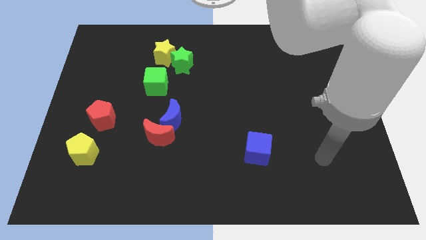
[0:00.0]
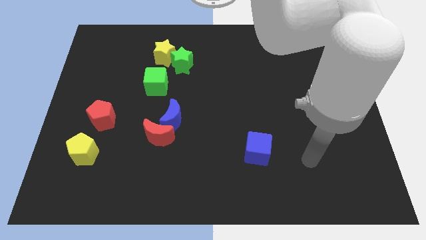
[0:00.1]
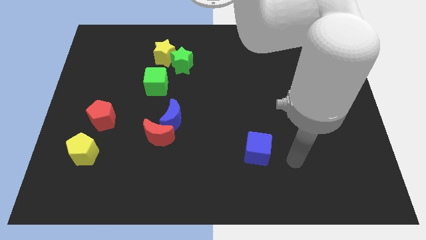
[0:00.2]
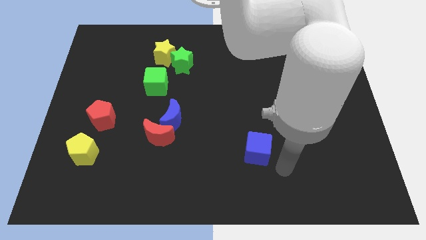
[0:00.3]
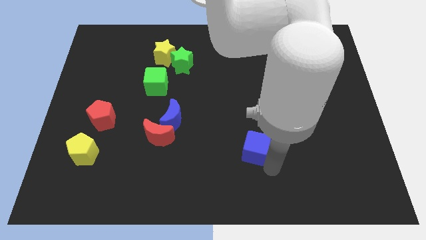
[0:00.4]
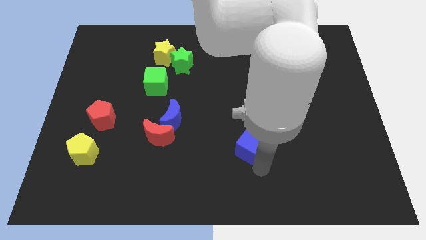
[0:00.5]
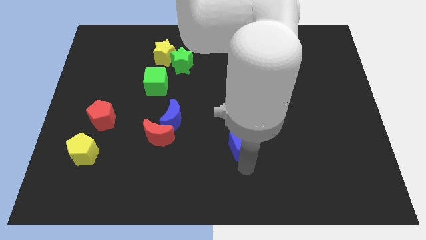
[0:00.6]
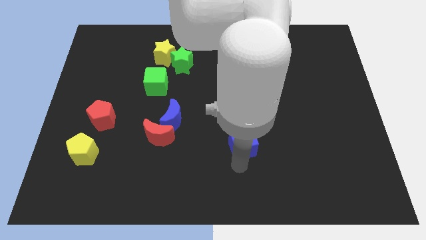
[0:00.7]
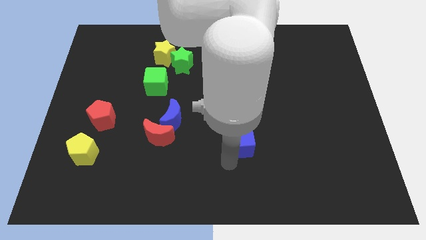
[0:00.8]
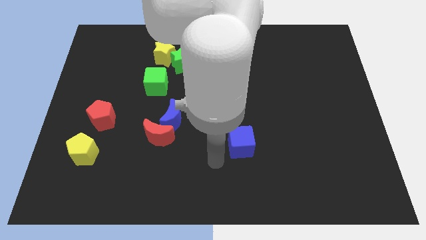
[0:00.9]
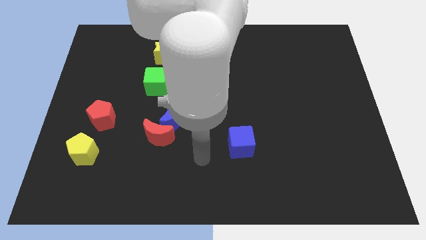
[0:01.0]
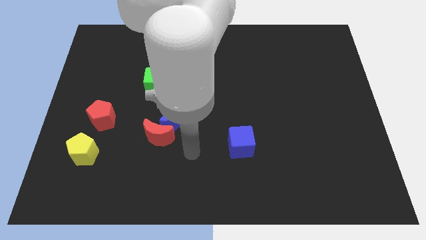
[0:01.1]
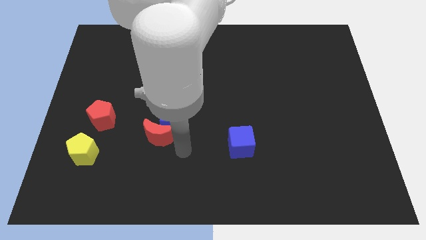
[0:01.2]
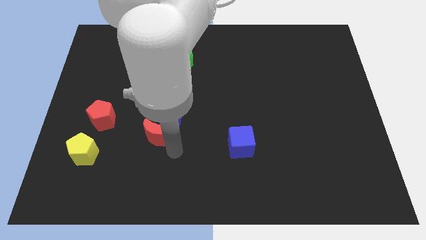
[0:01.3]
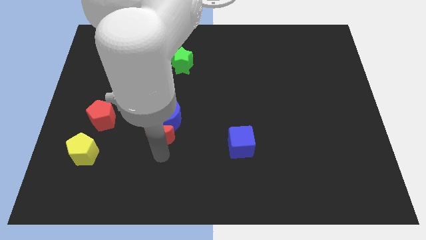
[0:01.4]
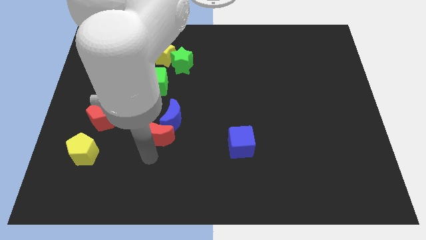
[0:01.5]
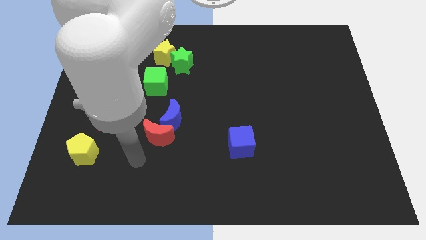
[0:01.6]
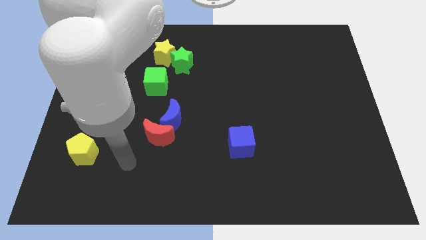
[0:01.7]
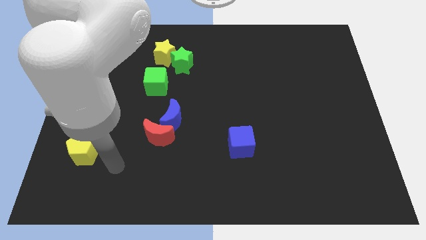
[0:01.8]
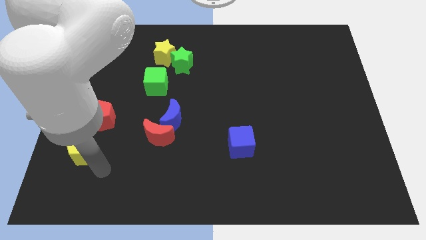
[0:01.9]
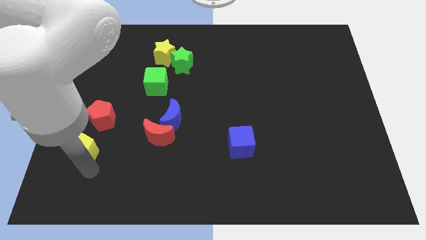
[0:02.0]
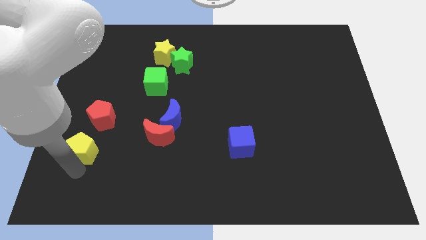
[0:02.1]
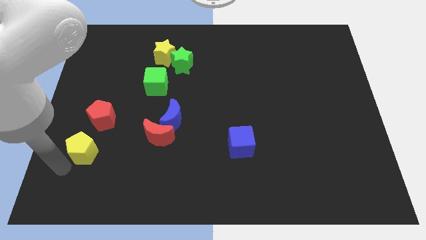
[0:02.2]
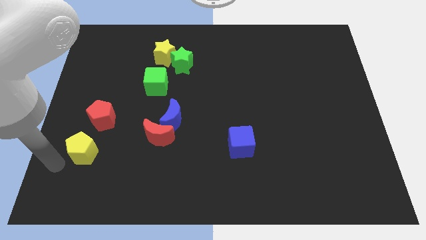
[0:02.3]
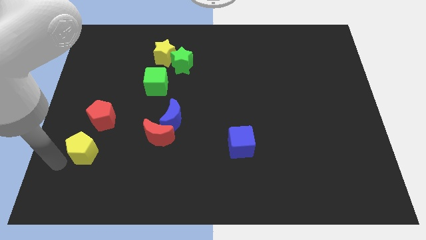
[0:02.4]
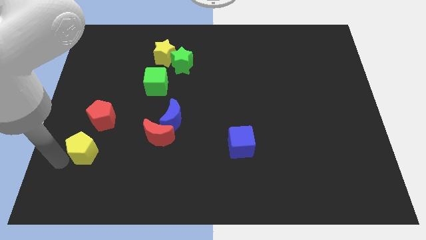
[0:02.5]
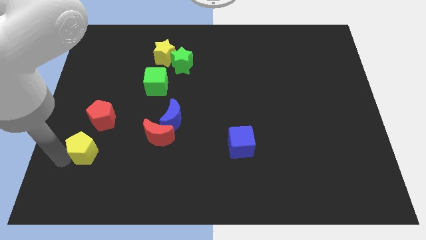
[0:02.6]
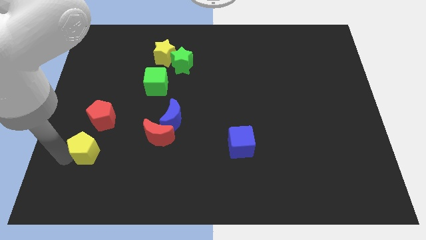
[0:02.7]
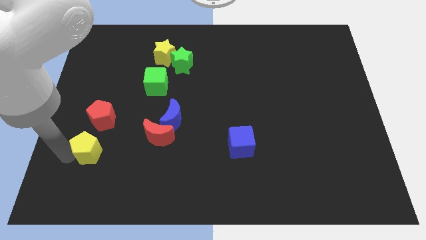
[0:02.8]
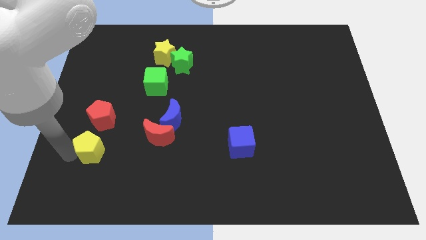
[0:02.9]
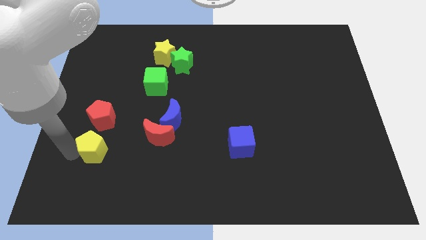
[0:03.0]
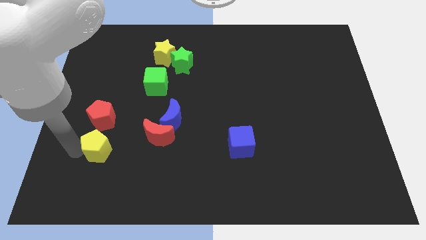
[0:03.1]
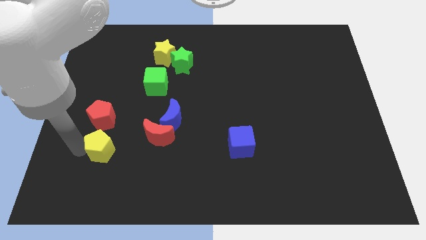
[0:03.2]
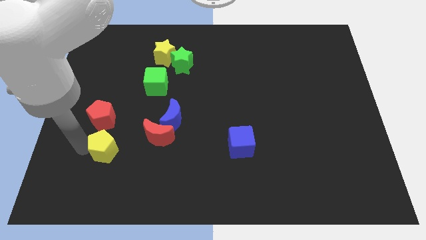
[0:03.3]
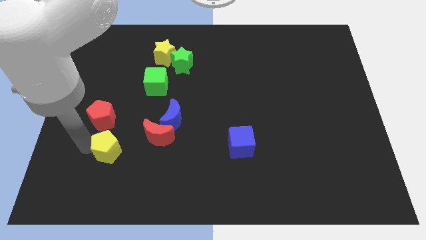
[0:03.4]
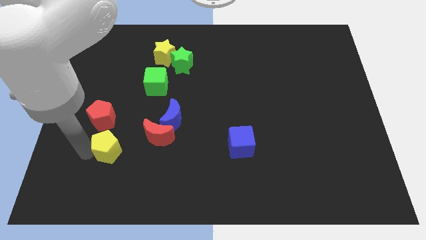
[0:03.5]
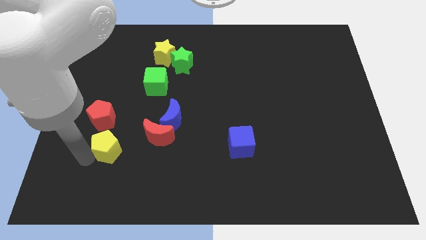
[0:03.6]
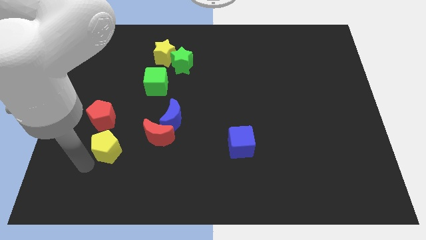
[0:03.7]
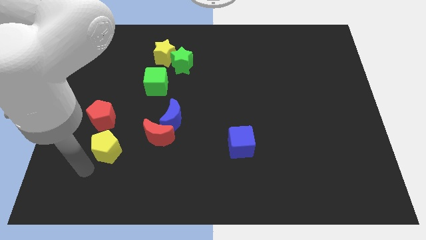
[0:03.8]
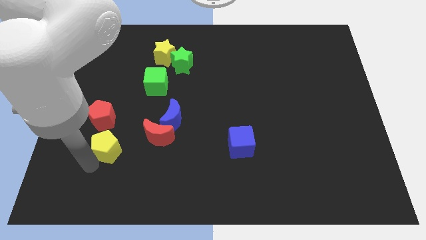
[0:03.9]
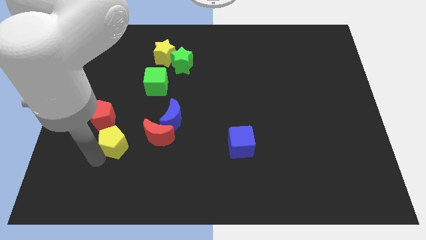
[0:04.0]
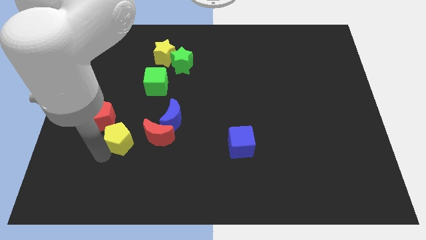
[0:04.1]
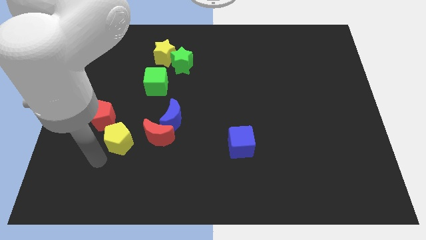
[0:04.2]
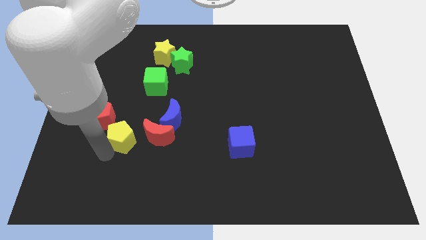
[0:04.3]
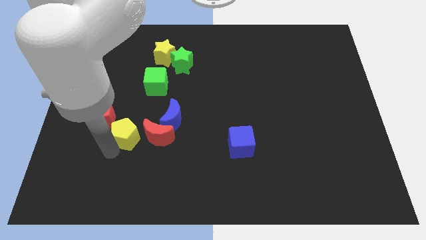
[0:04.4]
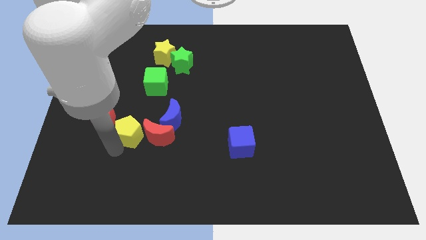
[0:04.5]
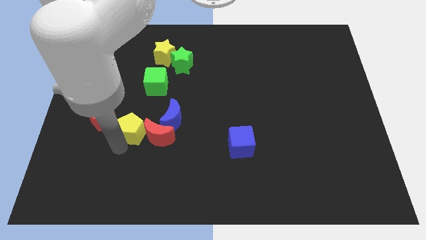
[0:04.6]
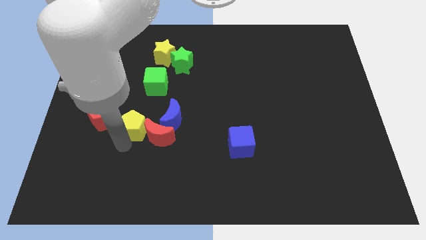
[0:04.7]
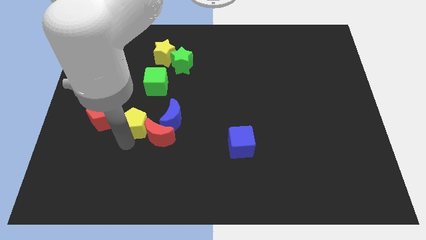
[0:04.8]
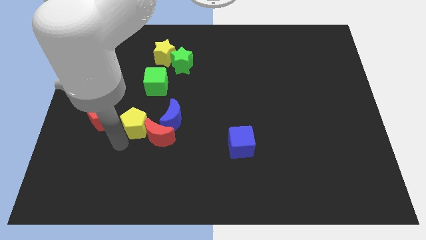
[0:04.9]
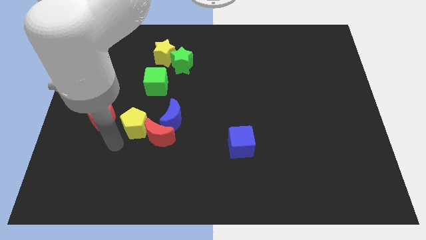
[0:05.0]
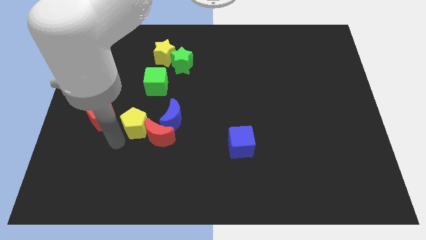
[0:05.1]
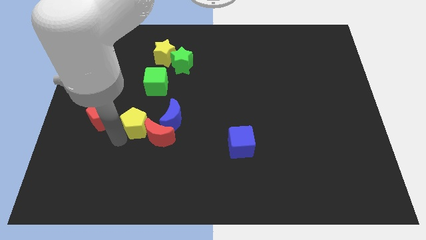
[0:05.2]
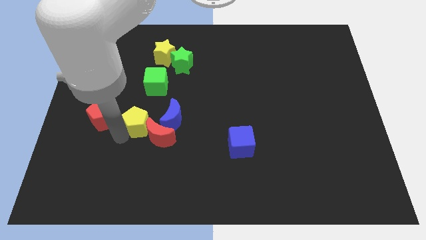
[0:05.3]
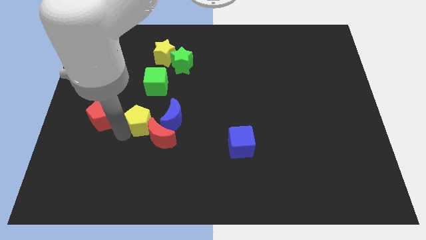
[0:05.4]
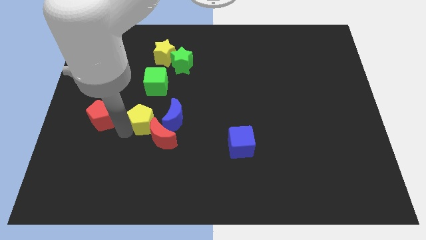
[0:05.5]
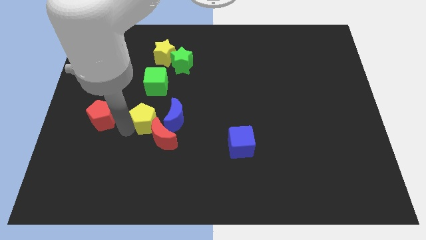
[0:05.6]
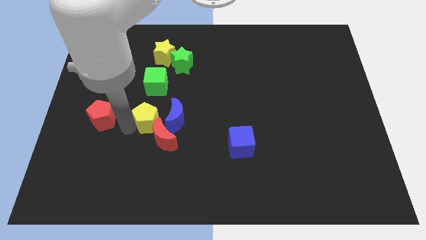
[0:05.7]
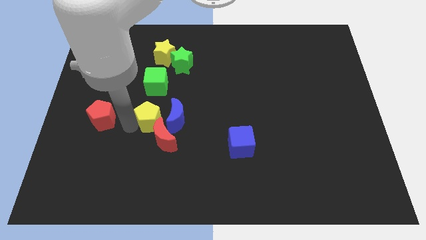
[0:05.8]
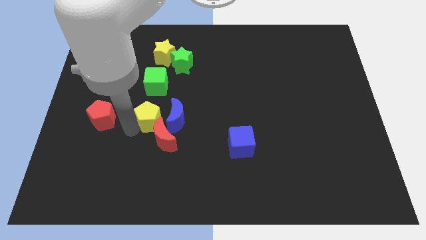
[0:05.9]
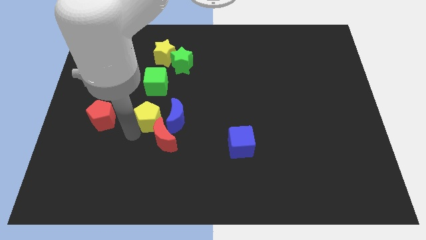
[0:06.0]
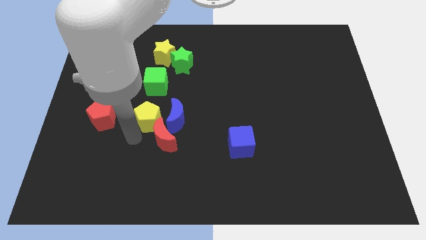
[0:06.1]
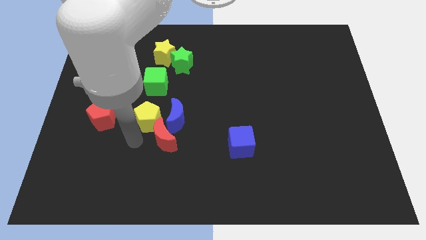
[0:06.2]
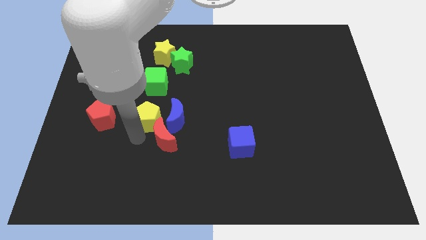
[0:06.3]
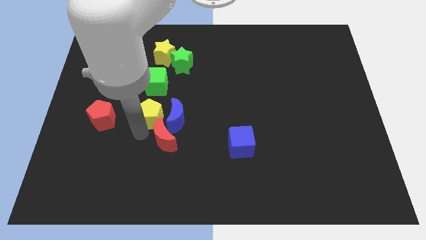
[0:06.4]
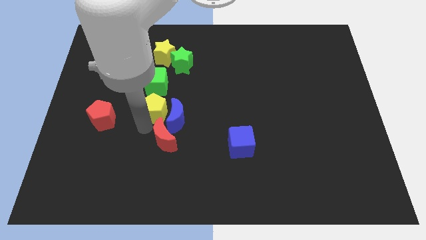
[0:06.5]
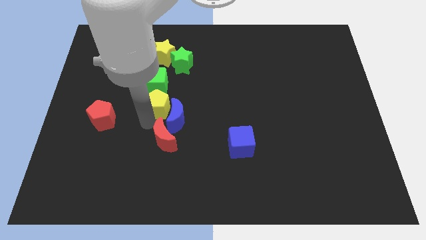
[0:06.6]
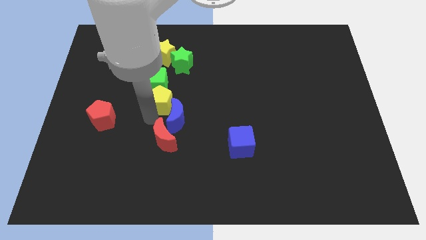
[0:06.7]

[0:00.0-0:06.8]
push the yellow pentagon up and to the right diagonally

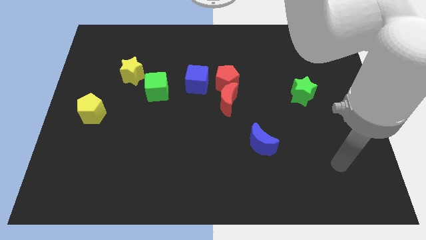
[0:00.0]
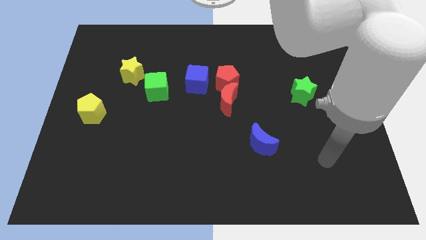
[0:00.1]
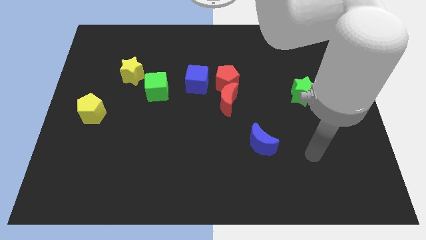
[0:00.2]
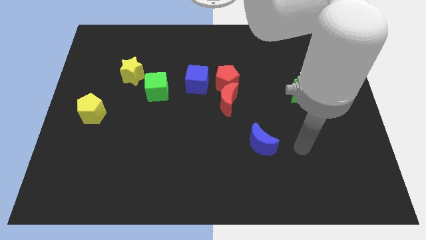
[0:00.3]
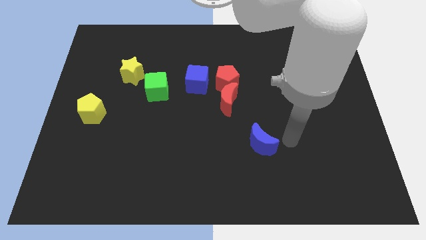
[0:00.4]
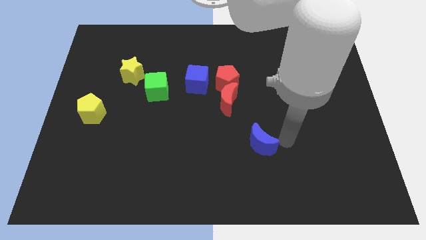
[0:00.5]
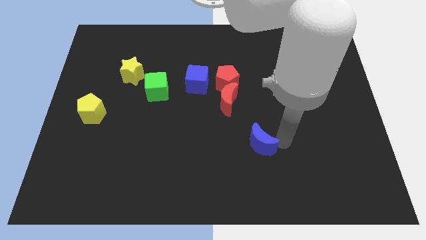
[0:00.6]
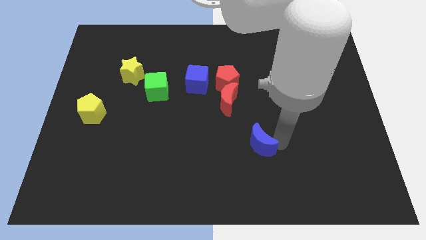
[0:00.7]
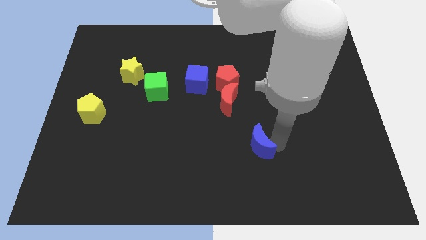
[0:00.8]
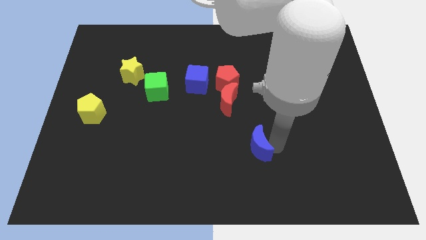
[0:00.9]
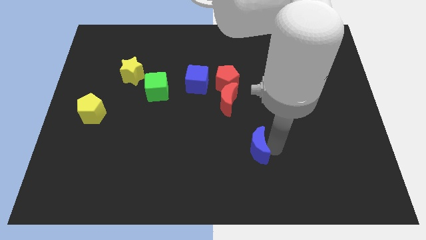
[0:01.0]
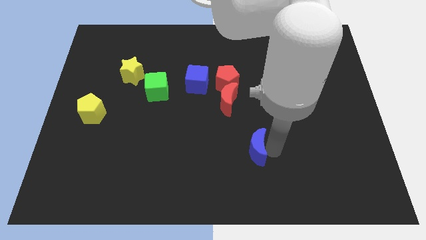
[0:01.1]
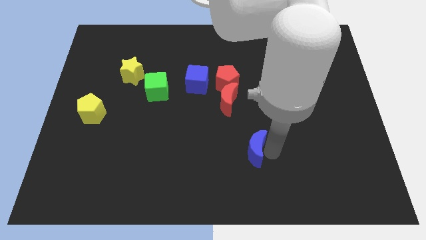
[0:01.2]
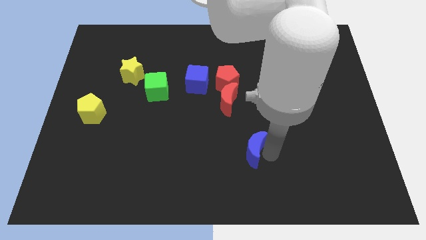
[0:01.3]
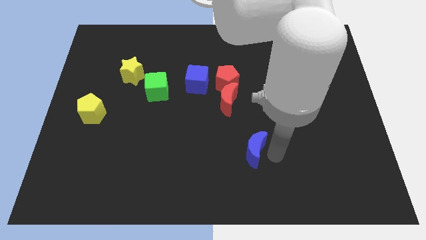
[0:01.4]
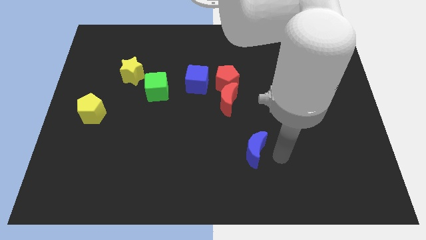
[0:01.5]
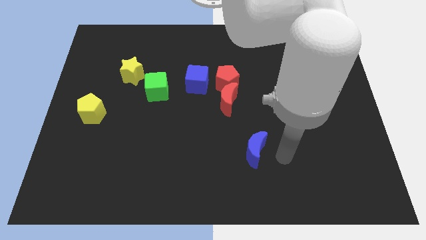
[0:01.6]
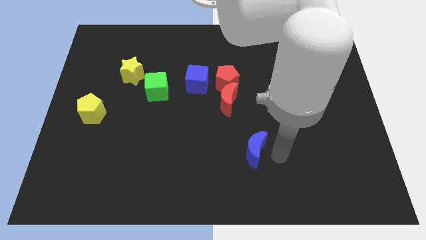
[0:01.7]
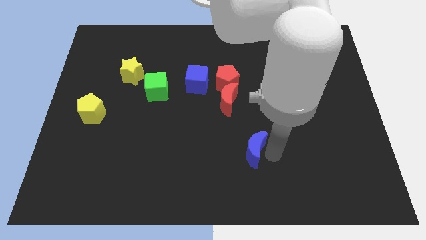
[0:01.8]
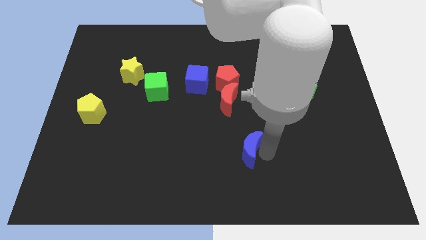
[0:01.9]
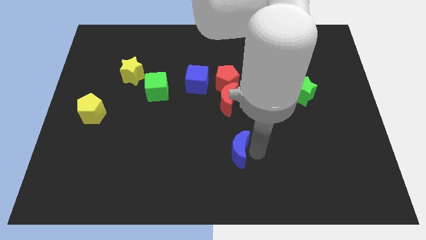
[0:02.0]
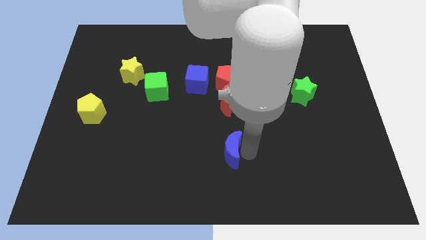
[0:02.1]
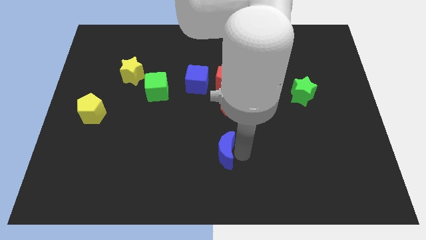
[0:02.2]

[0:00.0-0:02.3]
push the blue moon left slightly
